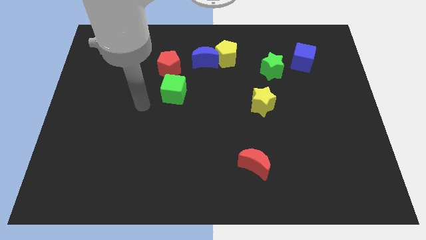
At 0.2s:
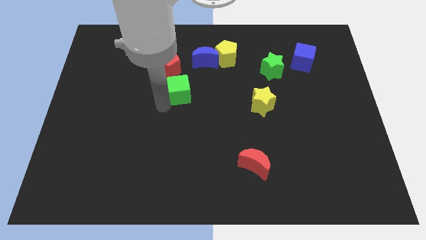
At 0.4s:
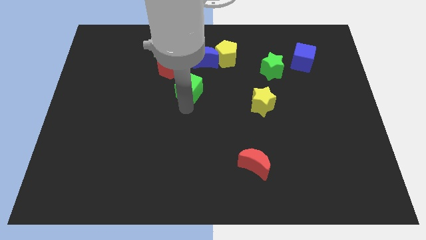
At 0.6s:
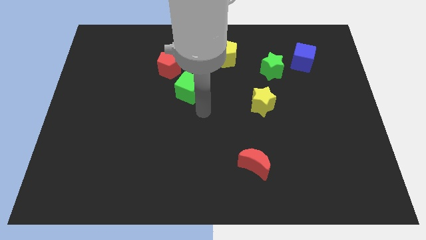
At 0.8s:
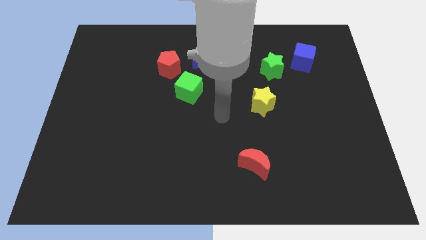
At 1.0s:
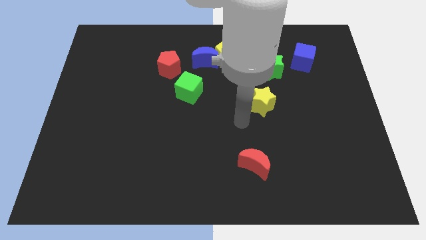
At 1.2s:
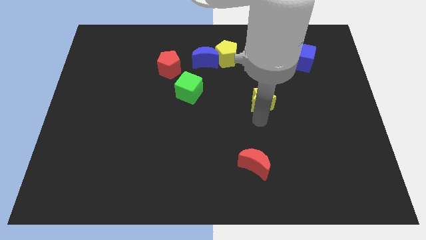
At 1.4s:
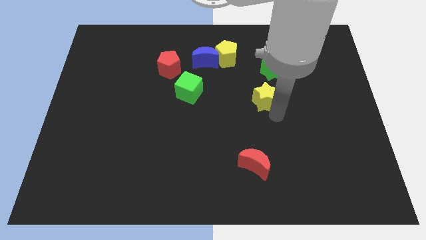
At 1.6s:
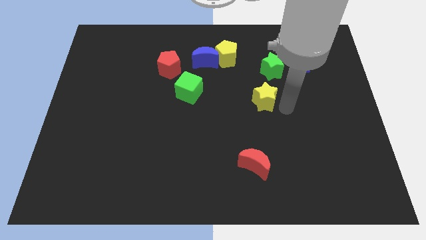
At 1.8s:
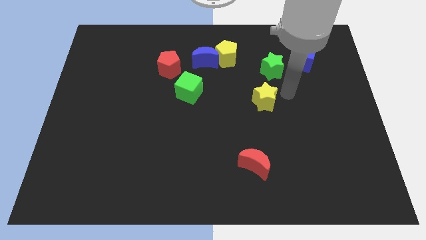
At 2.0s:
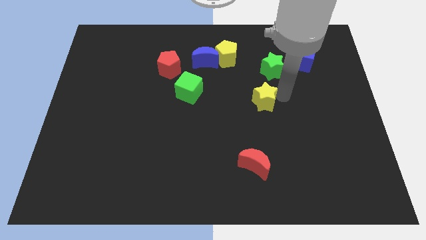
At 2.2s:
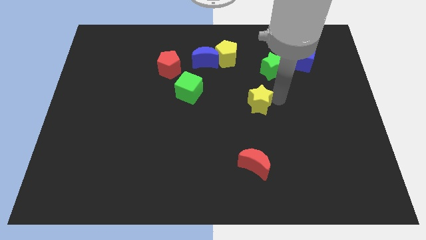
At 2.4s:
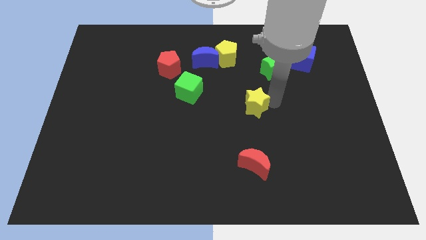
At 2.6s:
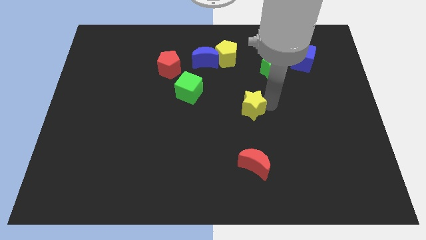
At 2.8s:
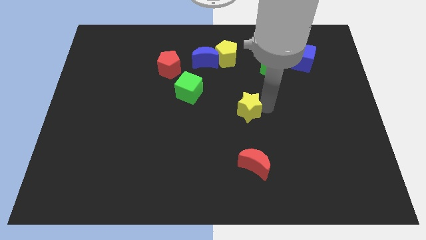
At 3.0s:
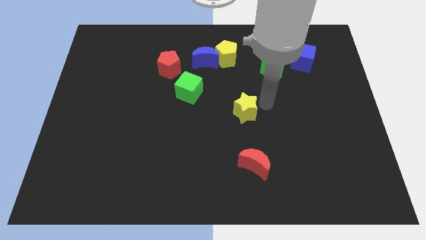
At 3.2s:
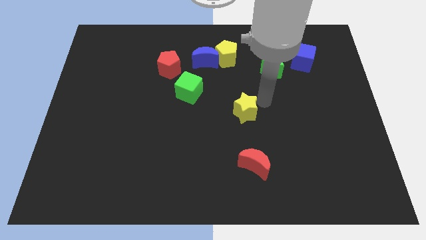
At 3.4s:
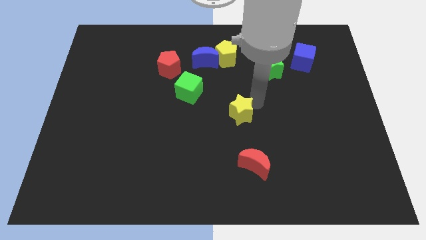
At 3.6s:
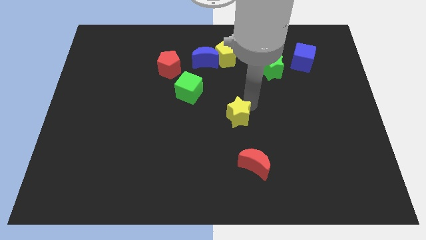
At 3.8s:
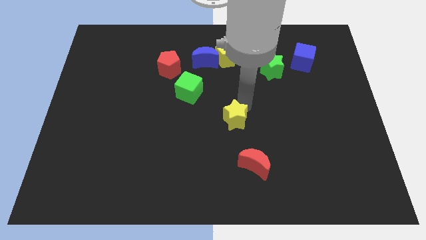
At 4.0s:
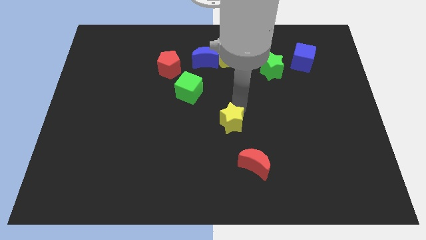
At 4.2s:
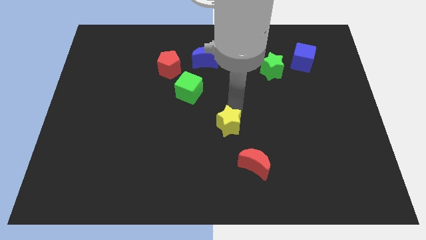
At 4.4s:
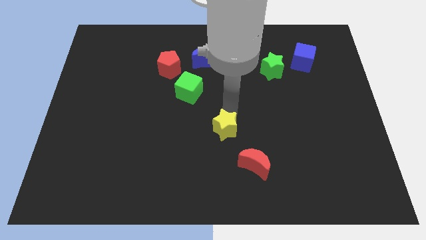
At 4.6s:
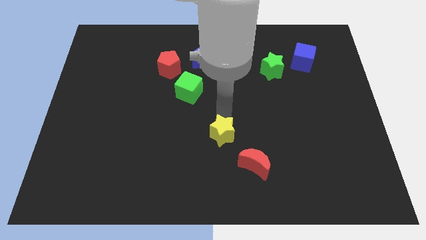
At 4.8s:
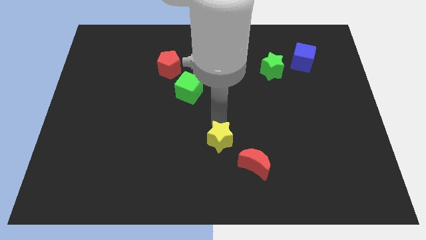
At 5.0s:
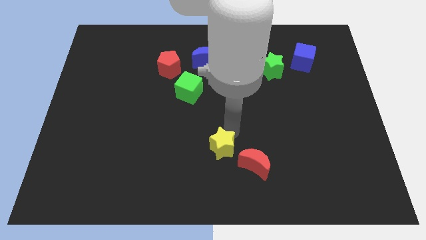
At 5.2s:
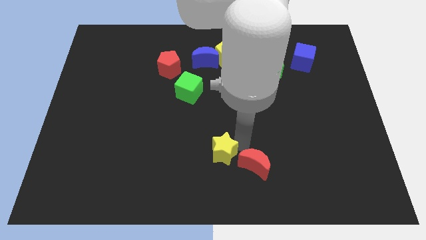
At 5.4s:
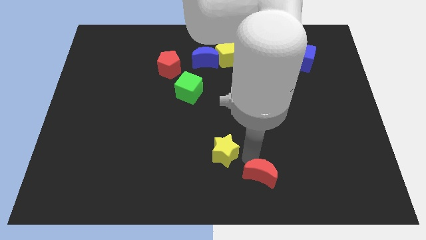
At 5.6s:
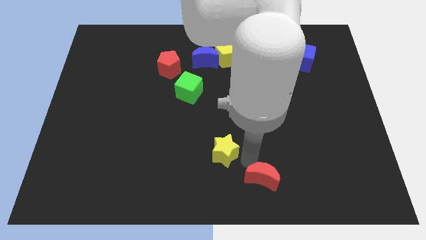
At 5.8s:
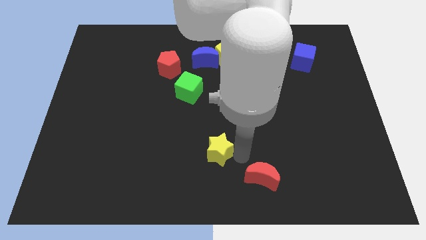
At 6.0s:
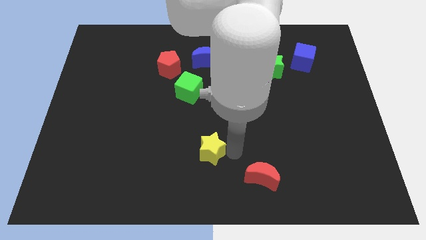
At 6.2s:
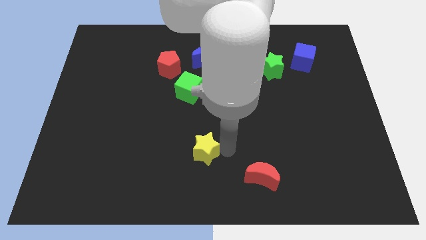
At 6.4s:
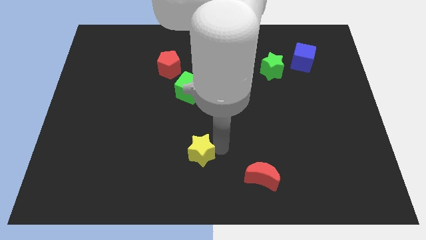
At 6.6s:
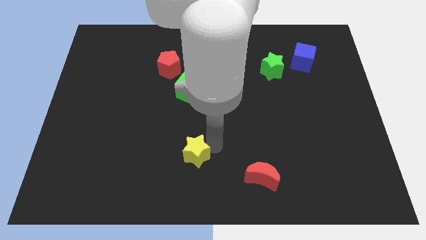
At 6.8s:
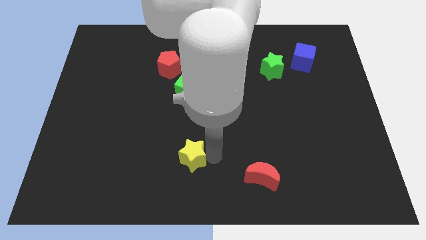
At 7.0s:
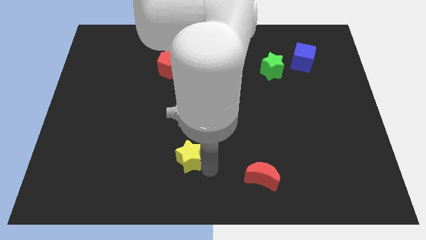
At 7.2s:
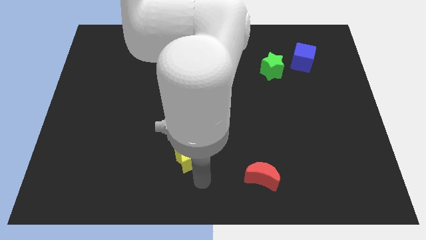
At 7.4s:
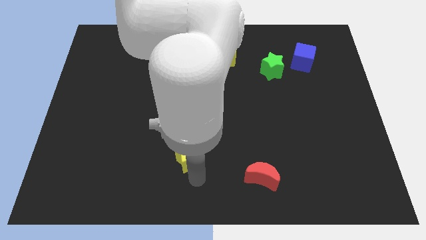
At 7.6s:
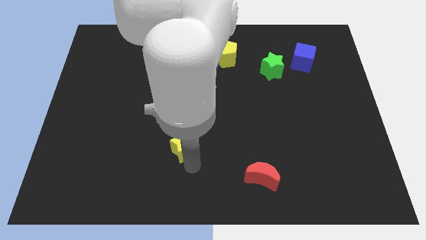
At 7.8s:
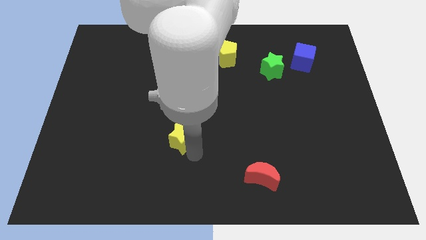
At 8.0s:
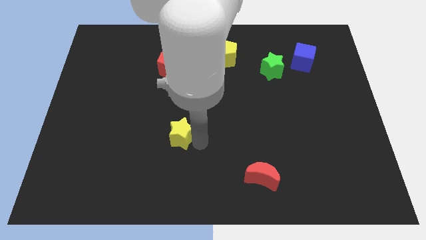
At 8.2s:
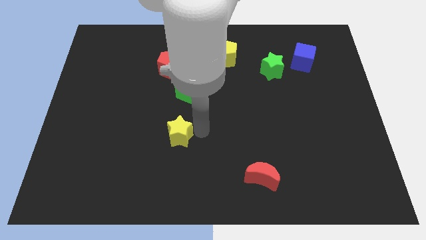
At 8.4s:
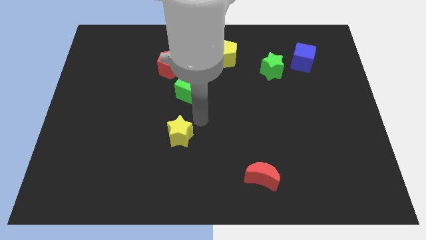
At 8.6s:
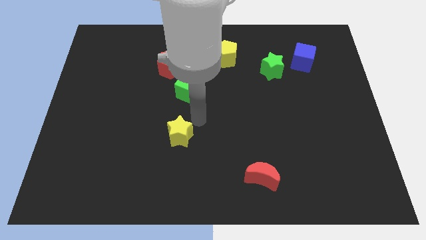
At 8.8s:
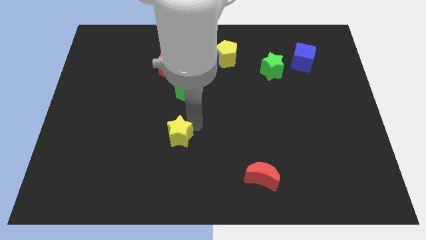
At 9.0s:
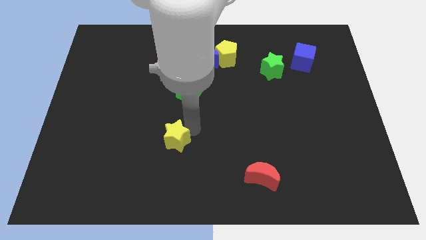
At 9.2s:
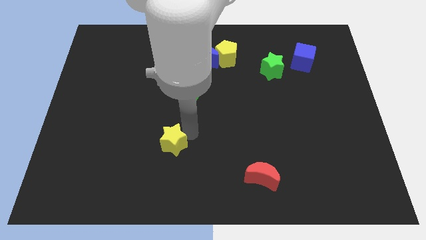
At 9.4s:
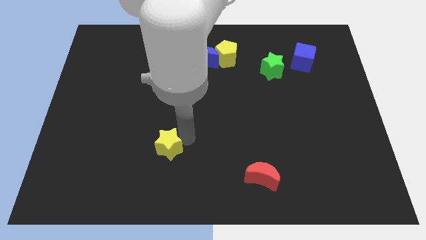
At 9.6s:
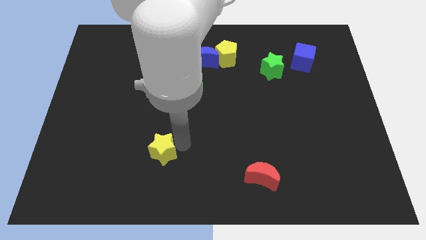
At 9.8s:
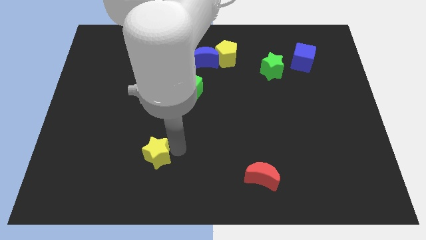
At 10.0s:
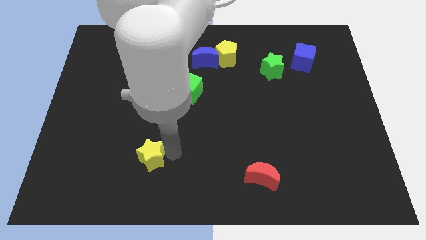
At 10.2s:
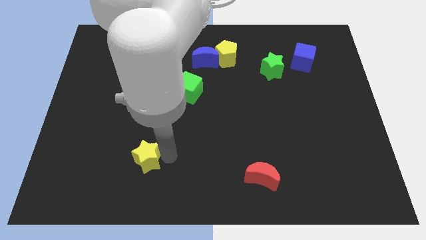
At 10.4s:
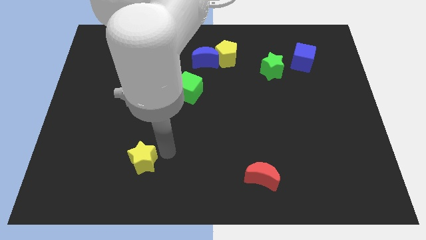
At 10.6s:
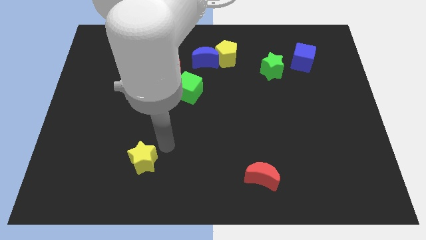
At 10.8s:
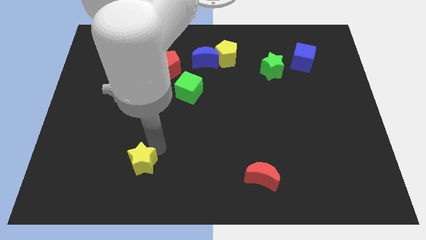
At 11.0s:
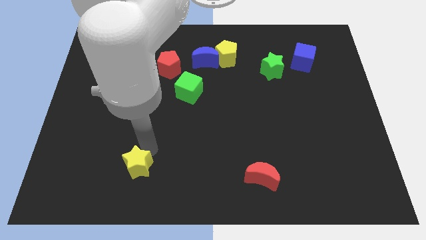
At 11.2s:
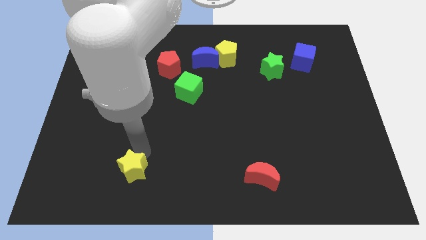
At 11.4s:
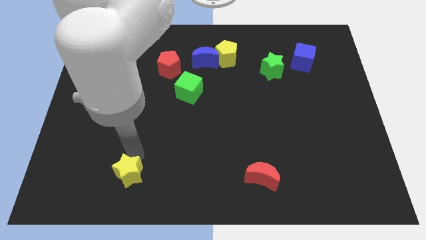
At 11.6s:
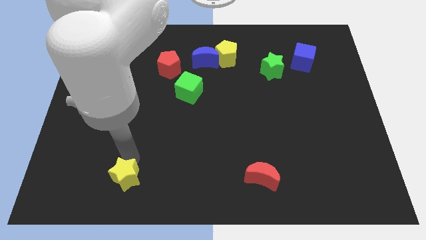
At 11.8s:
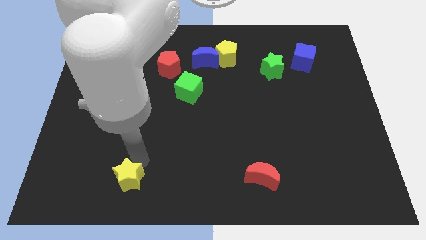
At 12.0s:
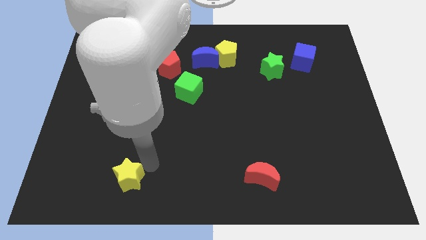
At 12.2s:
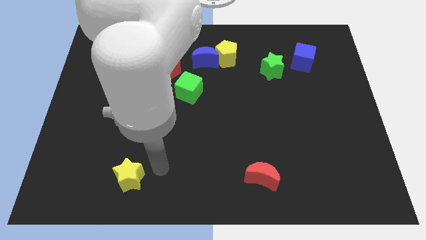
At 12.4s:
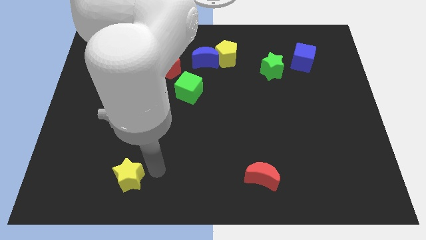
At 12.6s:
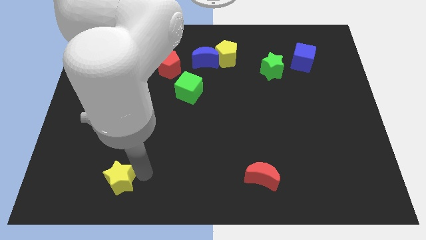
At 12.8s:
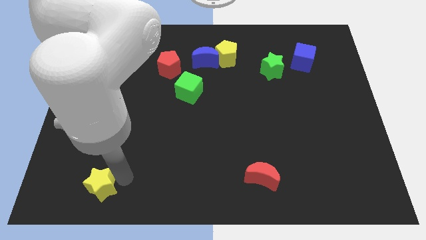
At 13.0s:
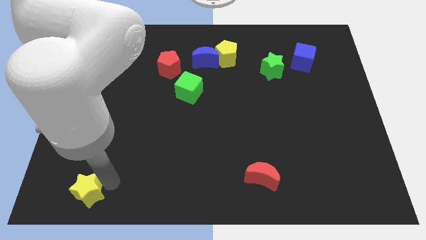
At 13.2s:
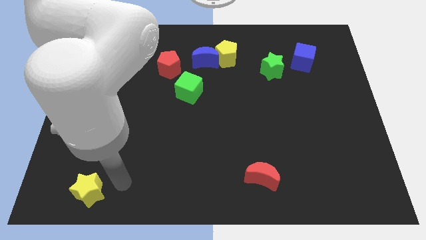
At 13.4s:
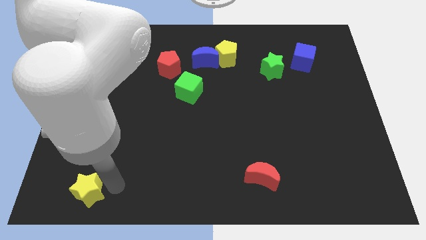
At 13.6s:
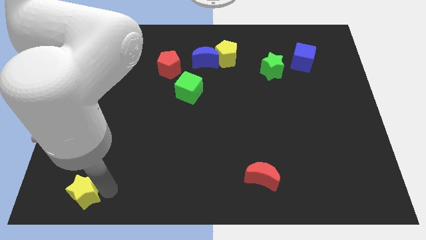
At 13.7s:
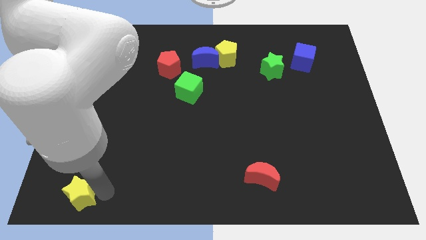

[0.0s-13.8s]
slide the yellow star to the bottom left of the board

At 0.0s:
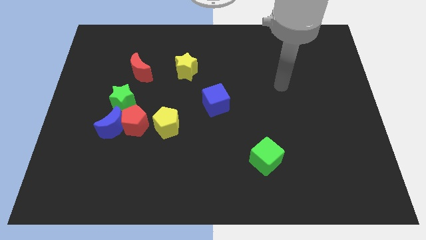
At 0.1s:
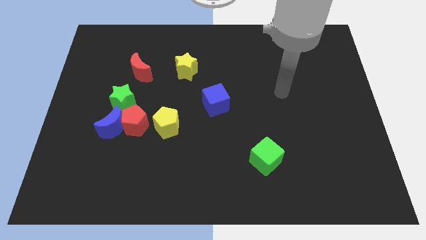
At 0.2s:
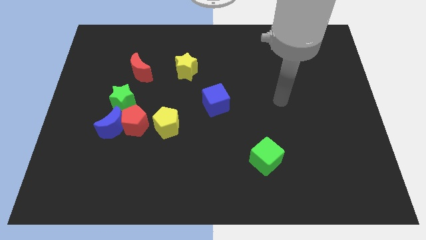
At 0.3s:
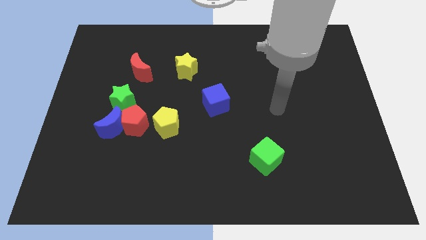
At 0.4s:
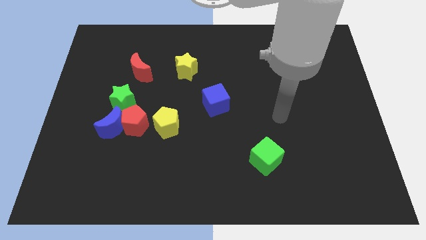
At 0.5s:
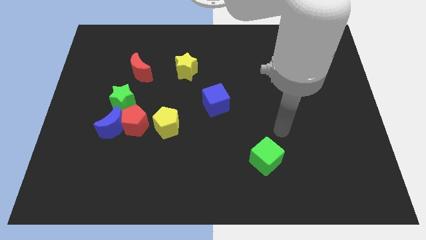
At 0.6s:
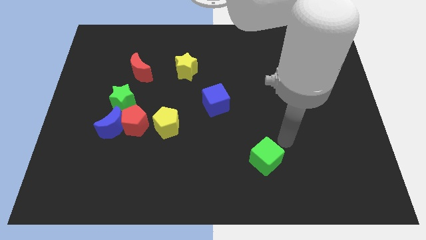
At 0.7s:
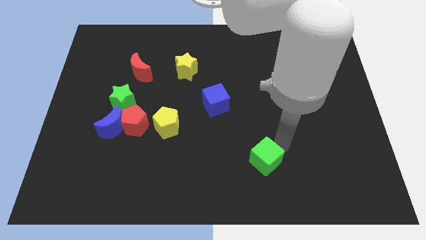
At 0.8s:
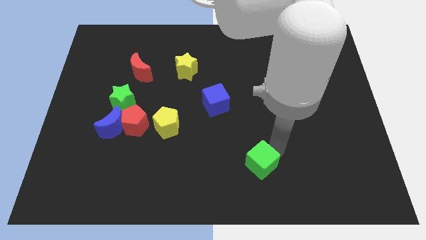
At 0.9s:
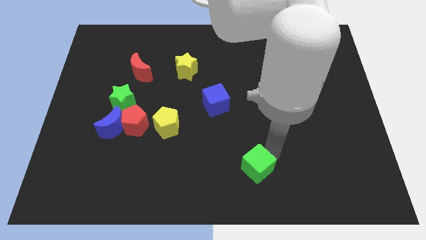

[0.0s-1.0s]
move the green cube to the bottom
